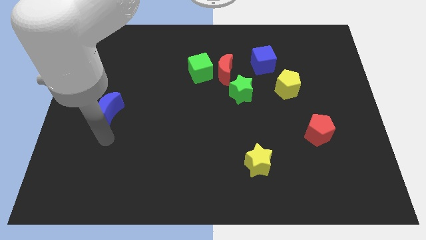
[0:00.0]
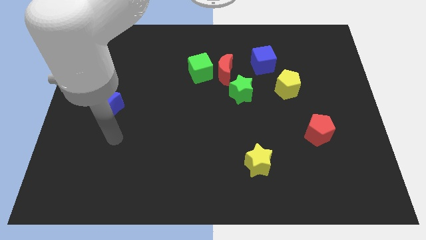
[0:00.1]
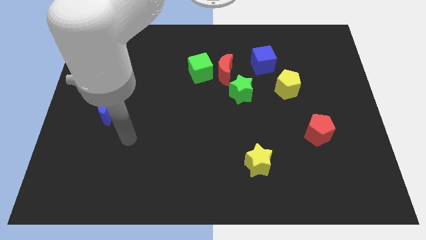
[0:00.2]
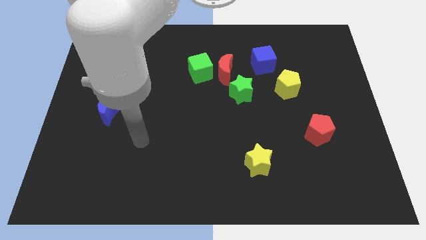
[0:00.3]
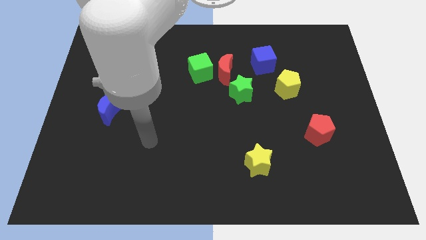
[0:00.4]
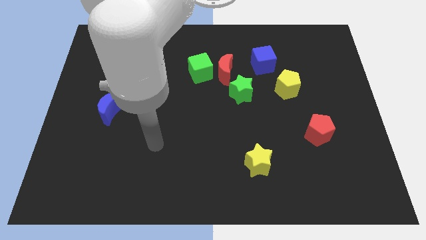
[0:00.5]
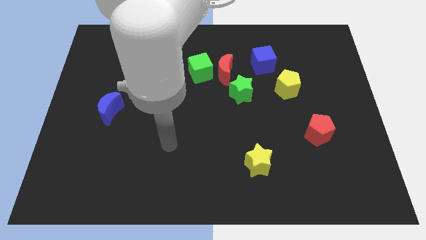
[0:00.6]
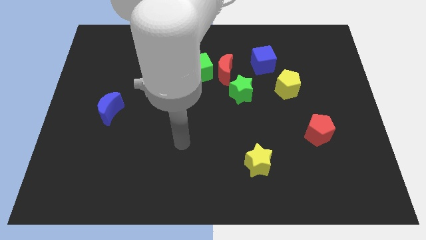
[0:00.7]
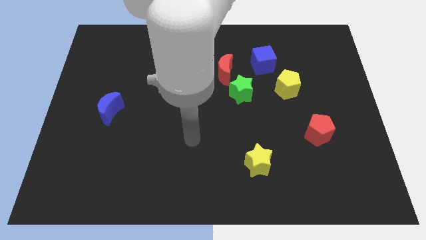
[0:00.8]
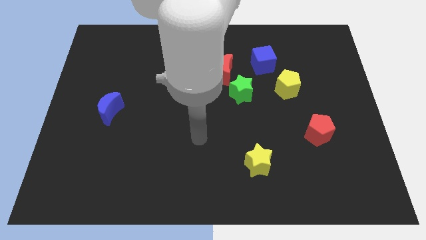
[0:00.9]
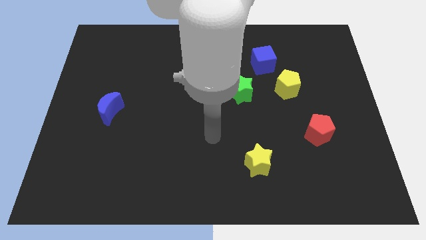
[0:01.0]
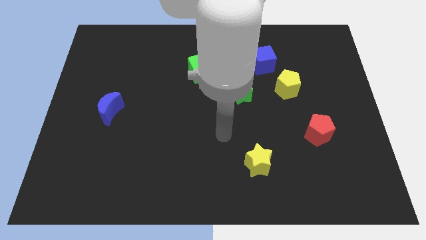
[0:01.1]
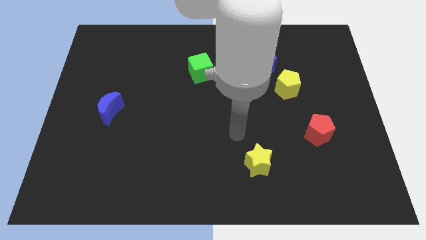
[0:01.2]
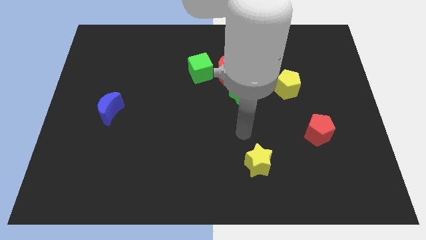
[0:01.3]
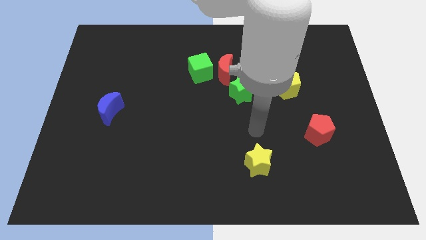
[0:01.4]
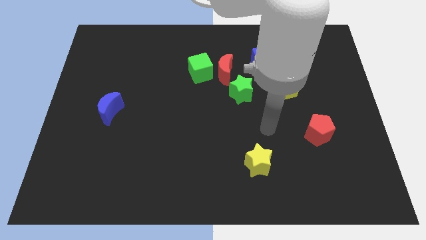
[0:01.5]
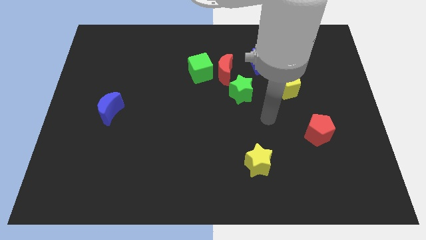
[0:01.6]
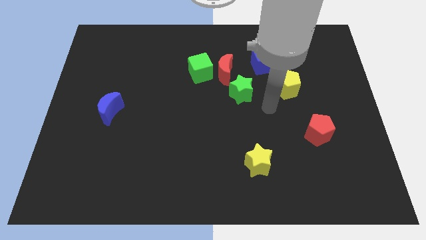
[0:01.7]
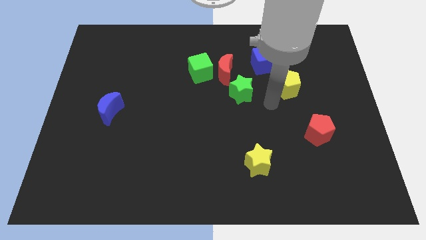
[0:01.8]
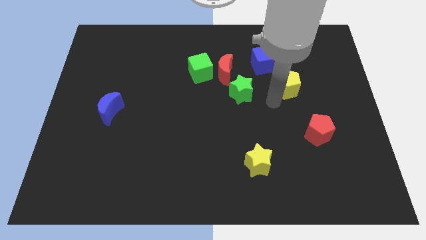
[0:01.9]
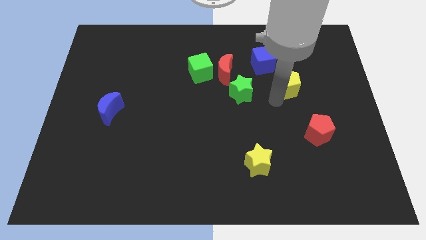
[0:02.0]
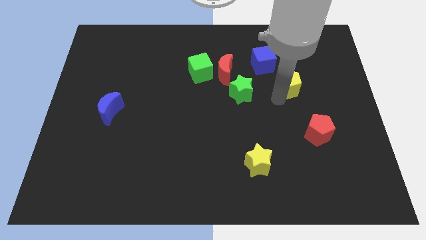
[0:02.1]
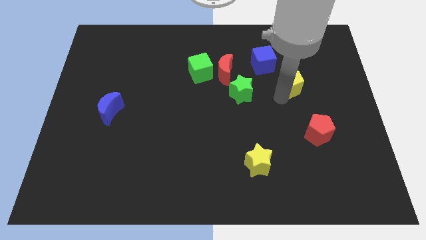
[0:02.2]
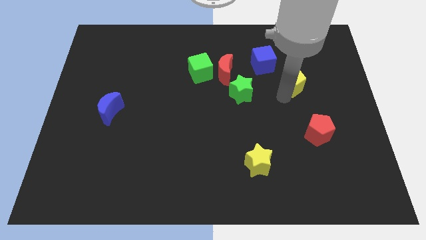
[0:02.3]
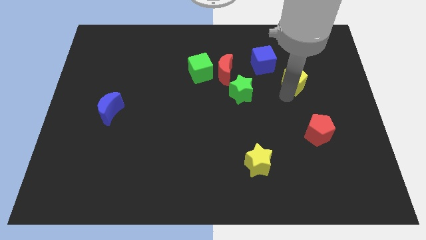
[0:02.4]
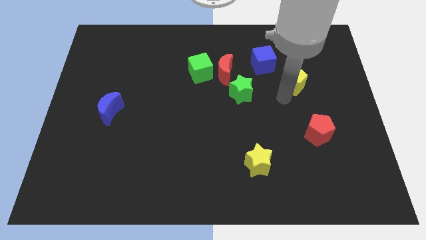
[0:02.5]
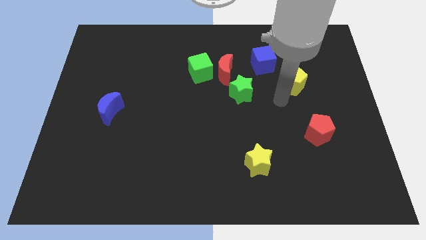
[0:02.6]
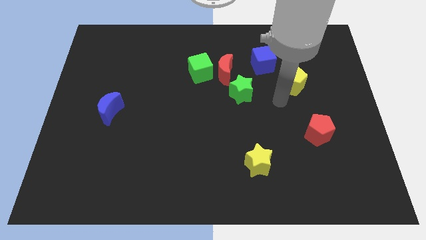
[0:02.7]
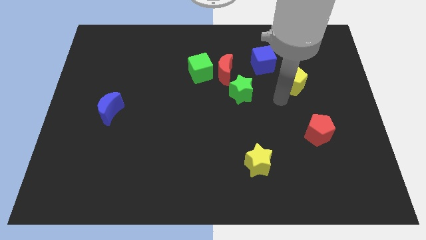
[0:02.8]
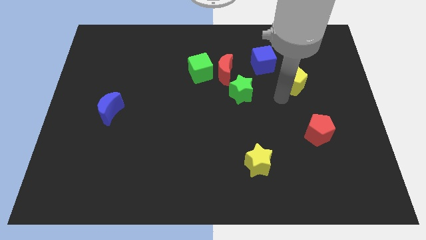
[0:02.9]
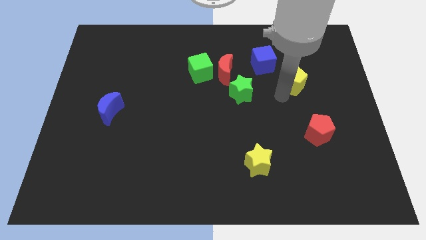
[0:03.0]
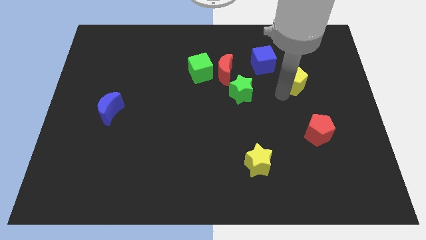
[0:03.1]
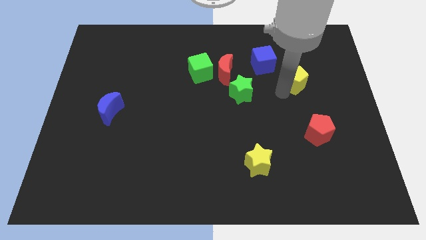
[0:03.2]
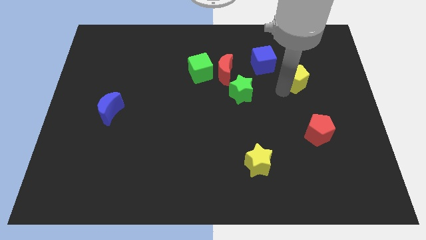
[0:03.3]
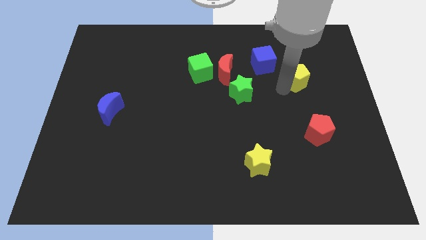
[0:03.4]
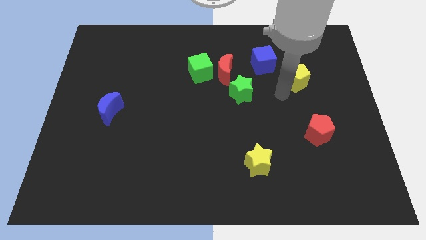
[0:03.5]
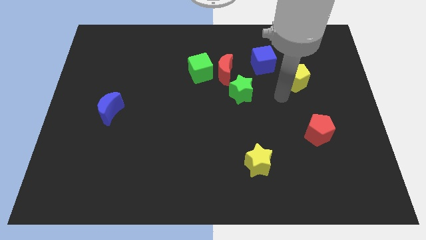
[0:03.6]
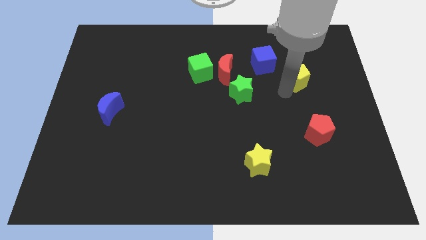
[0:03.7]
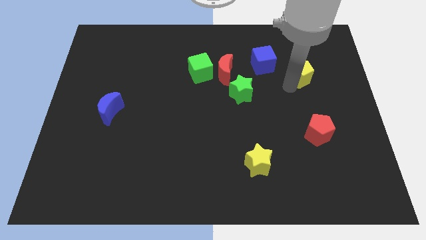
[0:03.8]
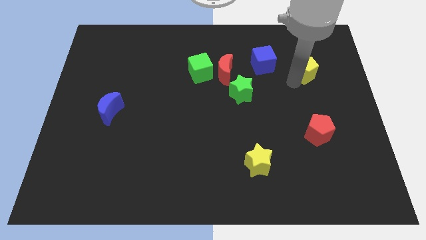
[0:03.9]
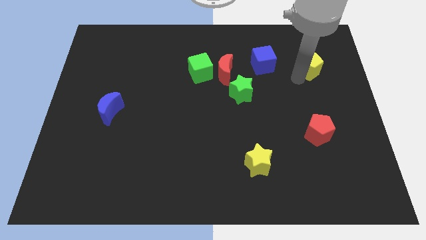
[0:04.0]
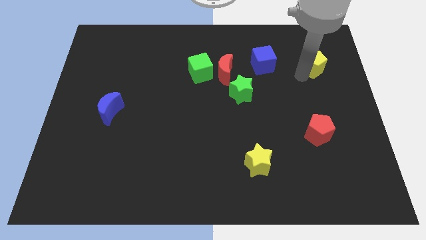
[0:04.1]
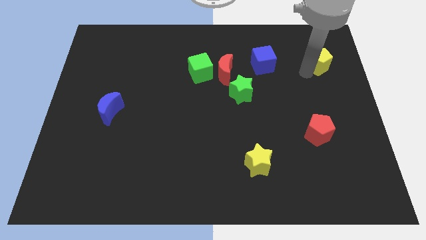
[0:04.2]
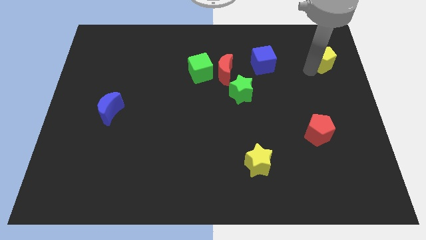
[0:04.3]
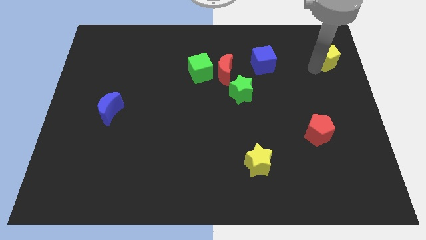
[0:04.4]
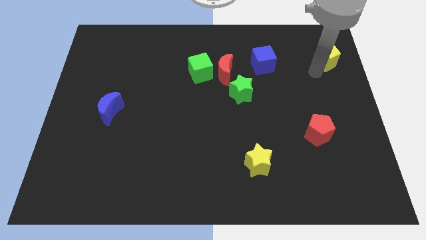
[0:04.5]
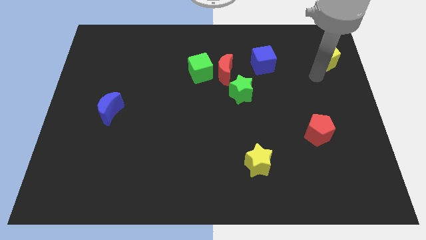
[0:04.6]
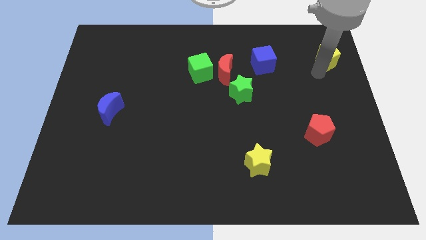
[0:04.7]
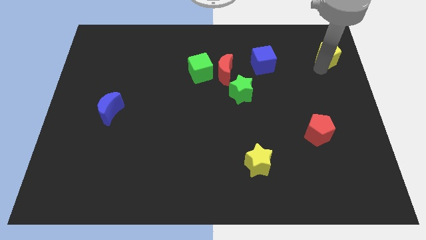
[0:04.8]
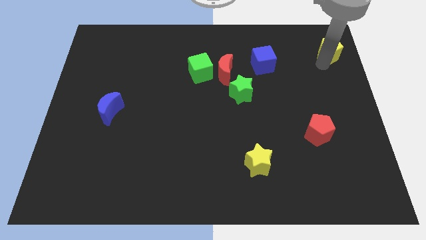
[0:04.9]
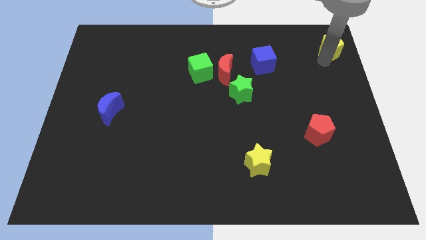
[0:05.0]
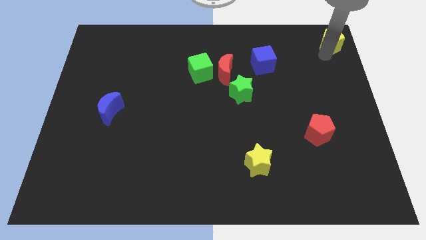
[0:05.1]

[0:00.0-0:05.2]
move the yellow pentagon to the top right of the board
